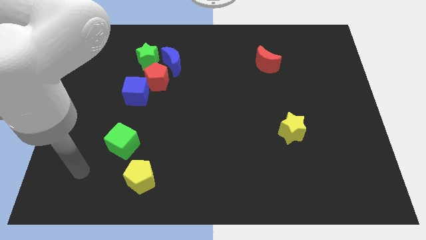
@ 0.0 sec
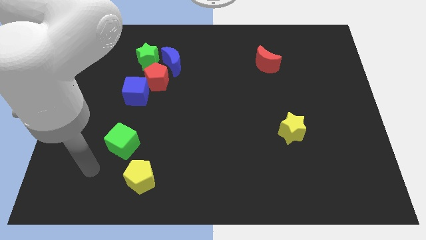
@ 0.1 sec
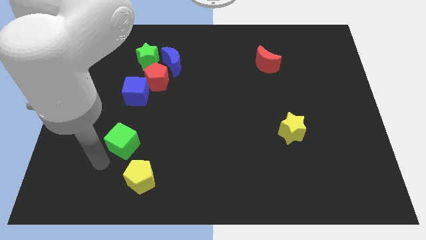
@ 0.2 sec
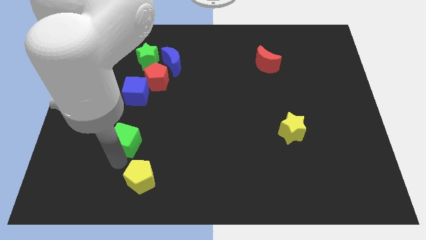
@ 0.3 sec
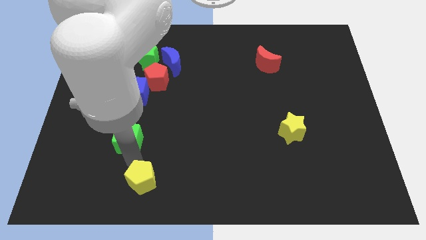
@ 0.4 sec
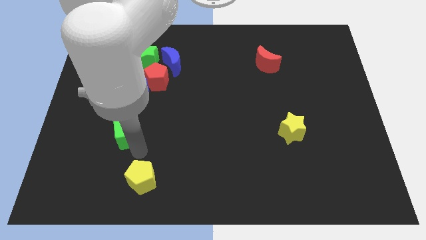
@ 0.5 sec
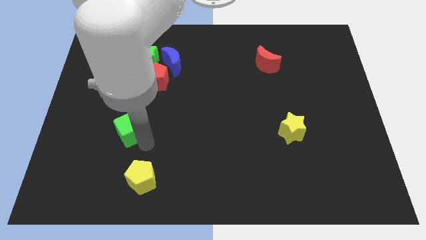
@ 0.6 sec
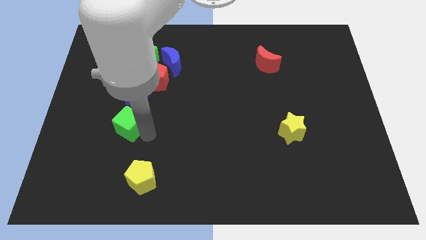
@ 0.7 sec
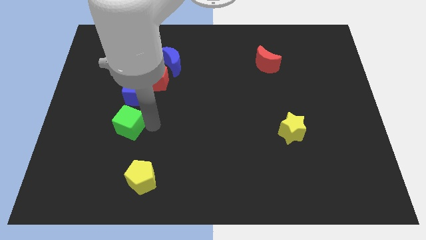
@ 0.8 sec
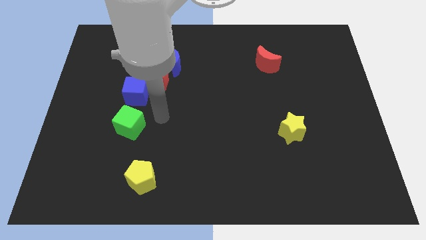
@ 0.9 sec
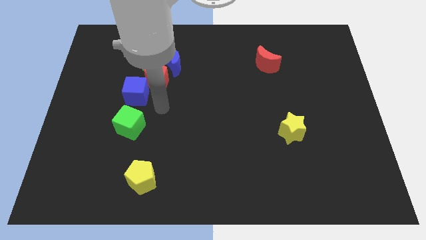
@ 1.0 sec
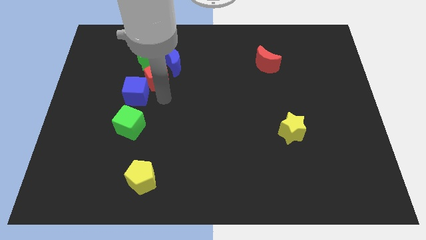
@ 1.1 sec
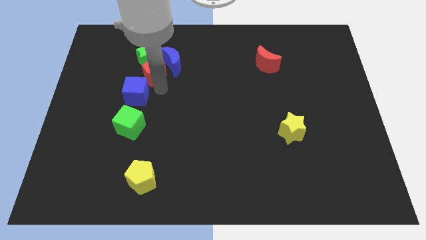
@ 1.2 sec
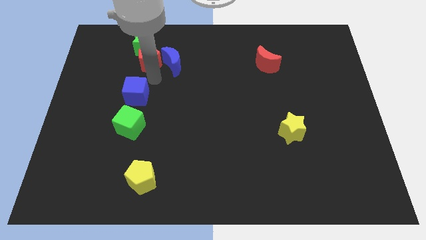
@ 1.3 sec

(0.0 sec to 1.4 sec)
separate the blue cube from the red pentagon

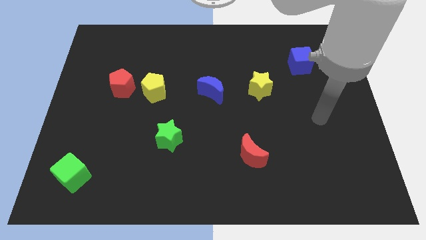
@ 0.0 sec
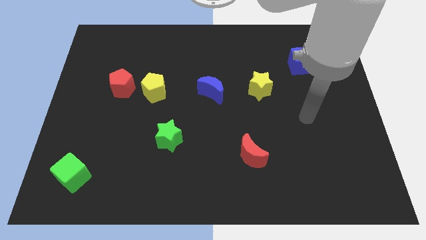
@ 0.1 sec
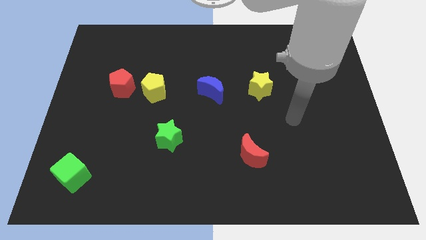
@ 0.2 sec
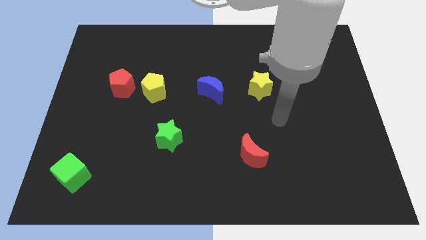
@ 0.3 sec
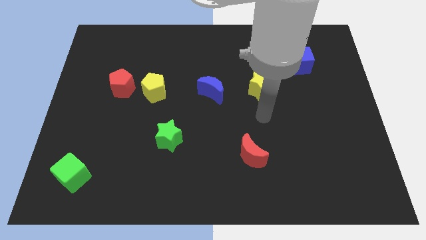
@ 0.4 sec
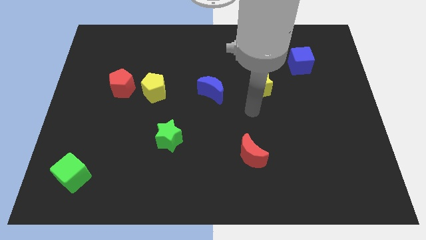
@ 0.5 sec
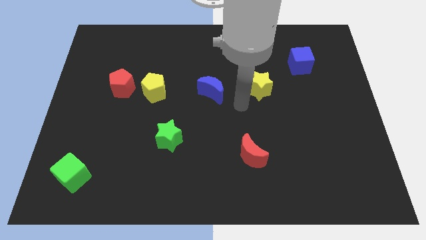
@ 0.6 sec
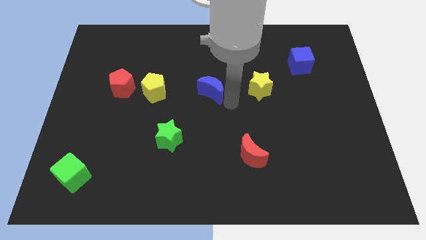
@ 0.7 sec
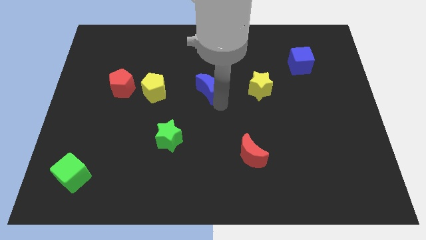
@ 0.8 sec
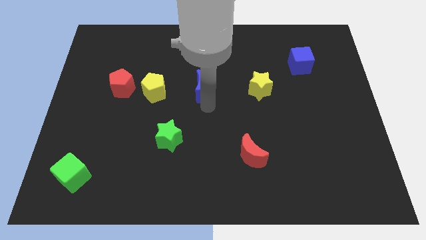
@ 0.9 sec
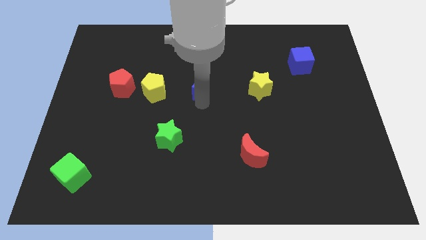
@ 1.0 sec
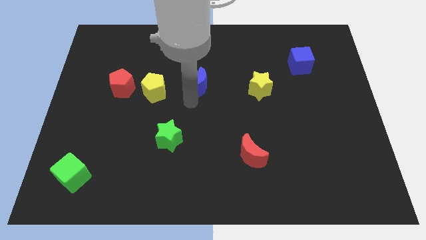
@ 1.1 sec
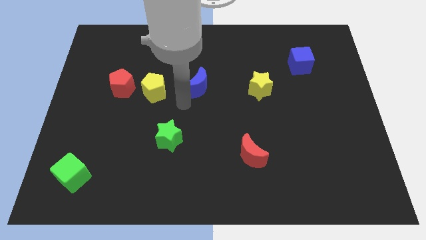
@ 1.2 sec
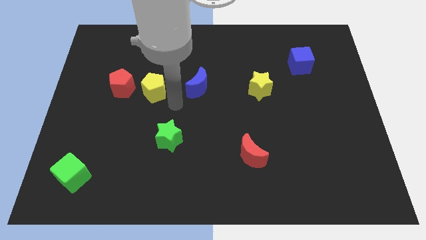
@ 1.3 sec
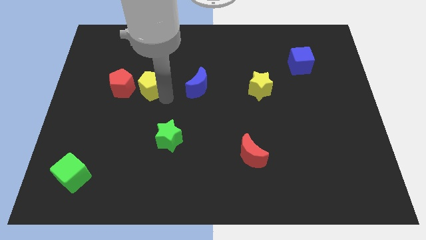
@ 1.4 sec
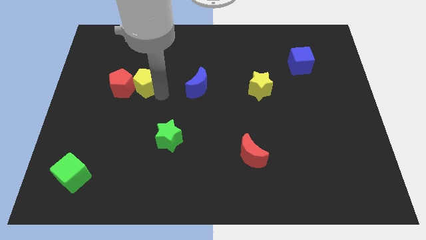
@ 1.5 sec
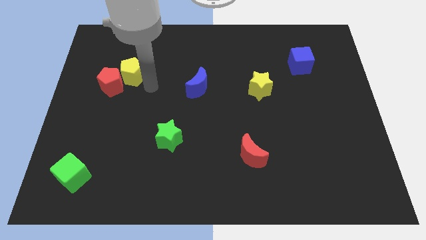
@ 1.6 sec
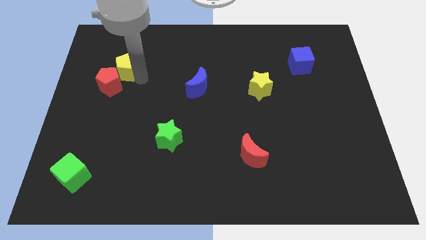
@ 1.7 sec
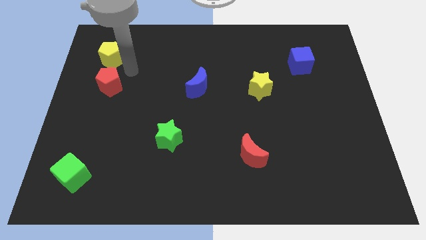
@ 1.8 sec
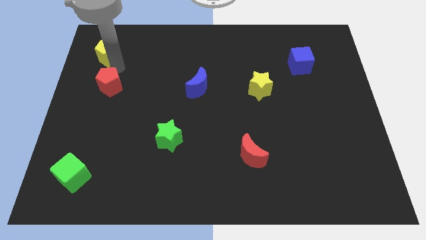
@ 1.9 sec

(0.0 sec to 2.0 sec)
move the red pentagon away from the yellow pentagon

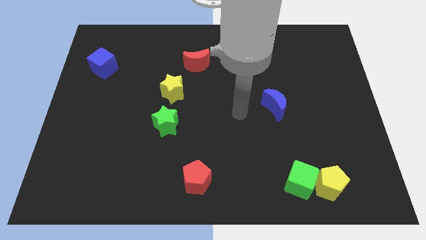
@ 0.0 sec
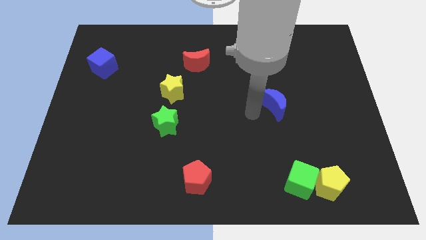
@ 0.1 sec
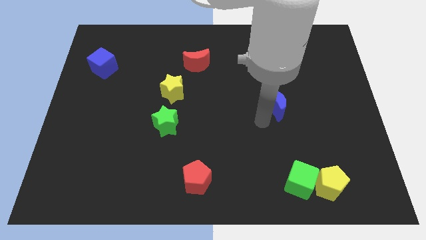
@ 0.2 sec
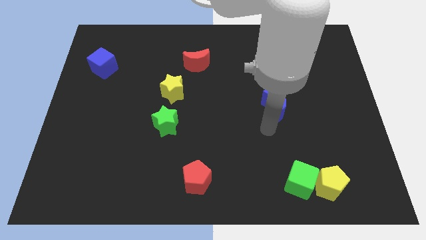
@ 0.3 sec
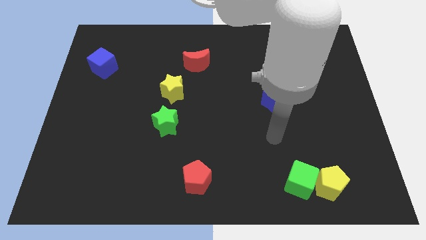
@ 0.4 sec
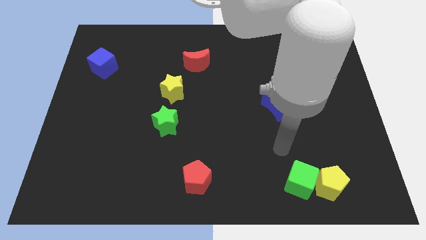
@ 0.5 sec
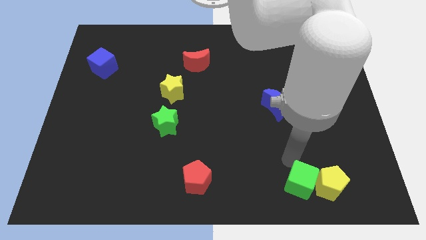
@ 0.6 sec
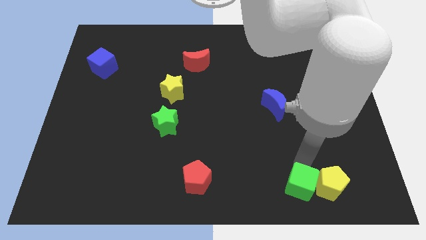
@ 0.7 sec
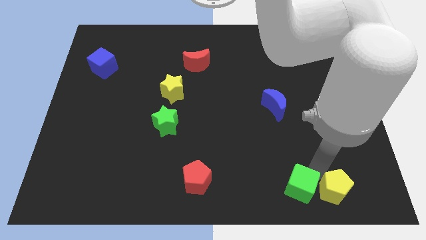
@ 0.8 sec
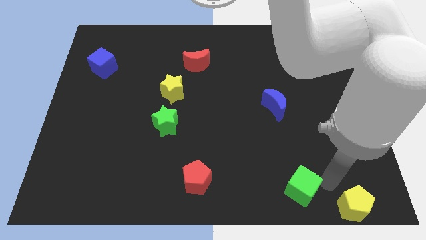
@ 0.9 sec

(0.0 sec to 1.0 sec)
pull the green cube apart from the yellow pentagon

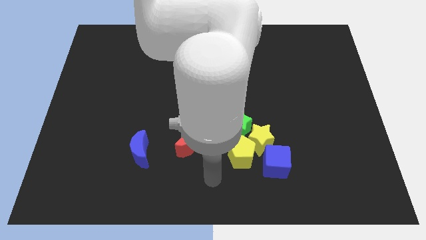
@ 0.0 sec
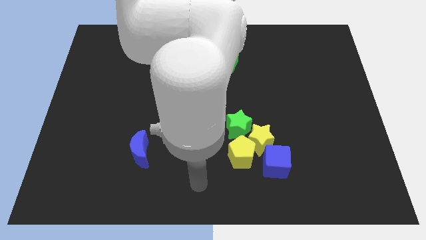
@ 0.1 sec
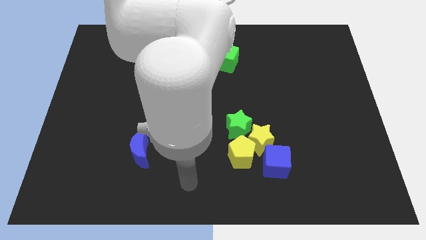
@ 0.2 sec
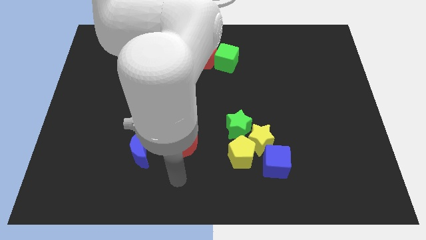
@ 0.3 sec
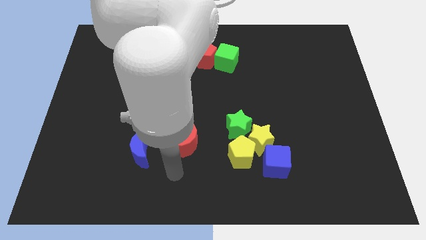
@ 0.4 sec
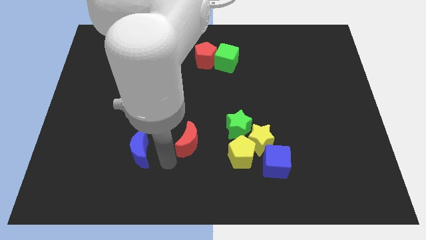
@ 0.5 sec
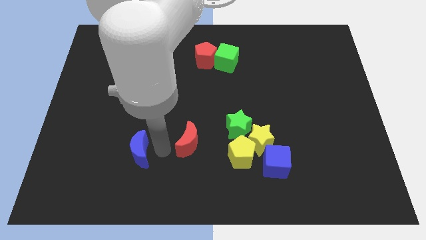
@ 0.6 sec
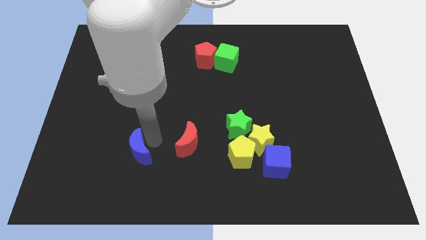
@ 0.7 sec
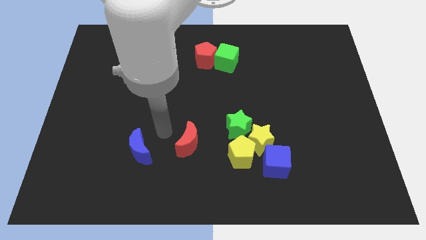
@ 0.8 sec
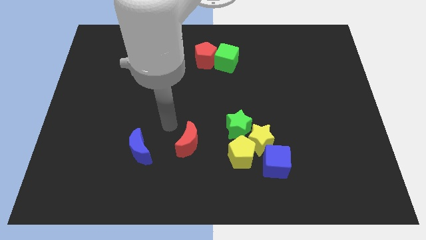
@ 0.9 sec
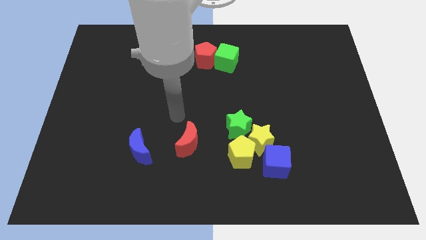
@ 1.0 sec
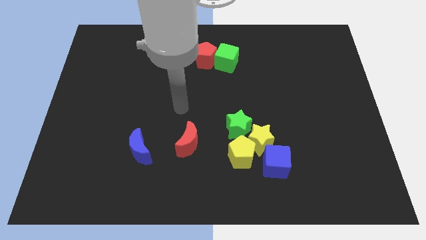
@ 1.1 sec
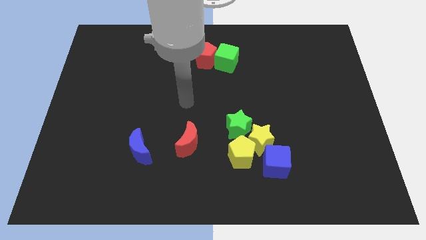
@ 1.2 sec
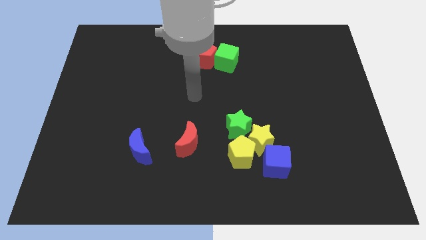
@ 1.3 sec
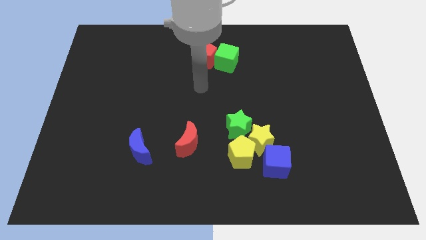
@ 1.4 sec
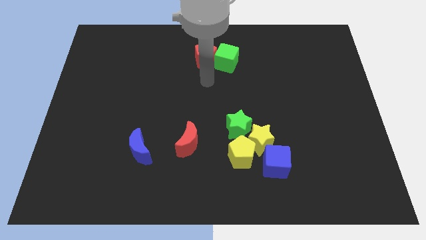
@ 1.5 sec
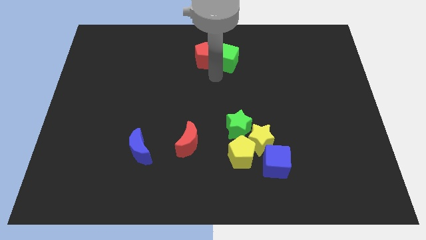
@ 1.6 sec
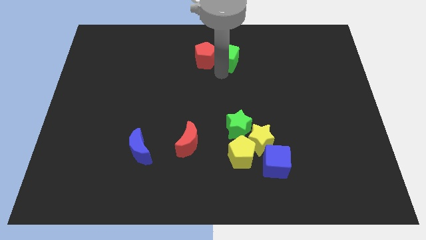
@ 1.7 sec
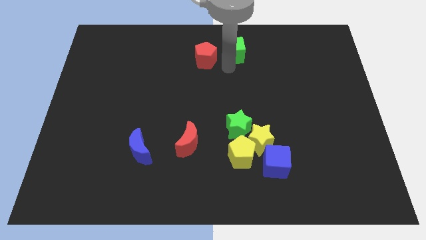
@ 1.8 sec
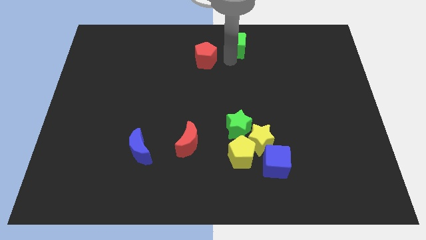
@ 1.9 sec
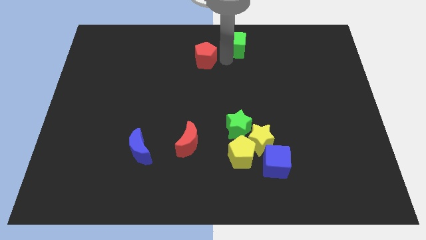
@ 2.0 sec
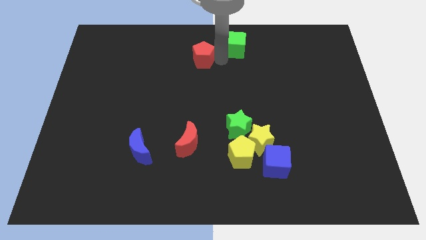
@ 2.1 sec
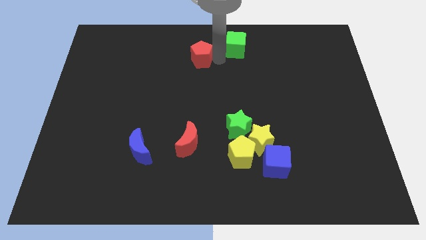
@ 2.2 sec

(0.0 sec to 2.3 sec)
pull the red pentagon apart from the green cube

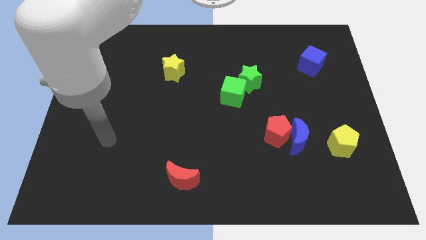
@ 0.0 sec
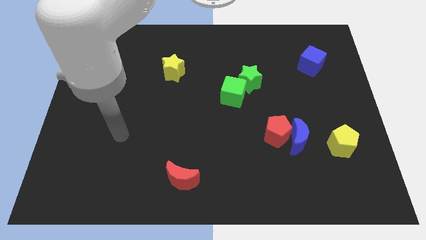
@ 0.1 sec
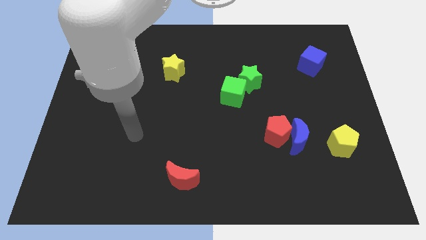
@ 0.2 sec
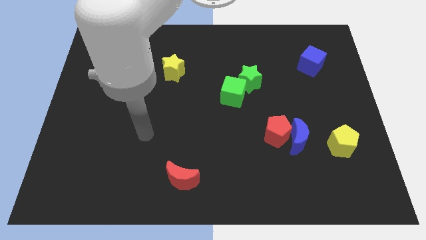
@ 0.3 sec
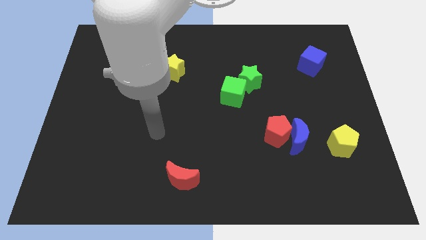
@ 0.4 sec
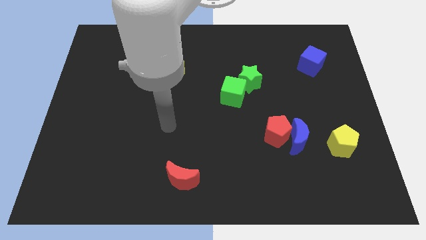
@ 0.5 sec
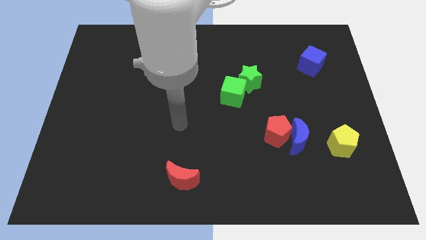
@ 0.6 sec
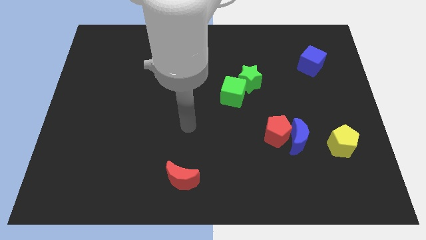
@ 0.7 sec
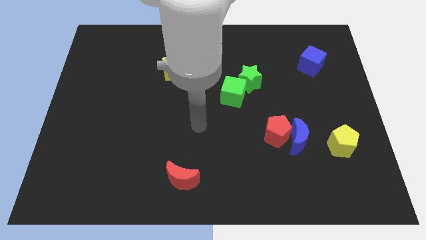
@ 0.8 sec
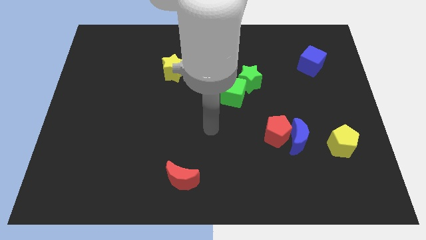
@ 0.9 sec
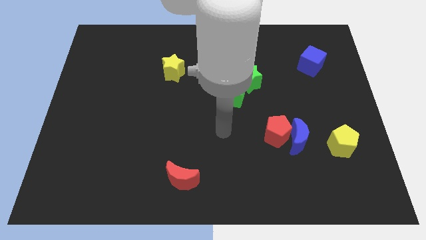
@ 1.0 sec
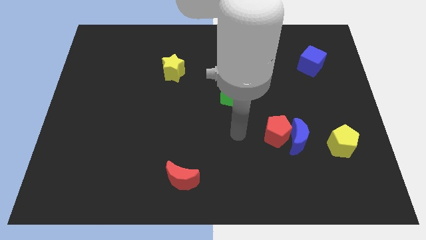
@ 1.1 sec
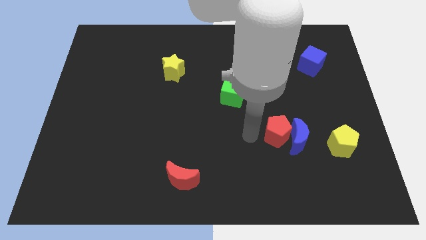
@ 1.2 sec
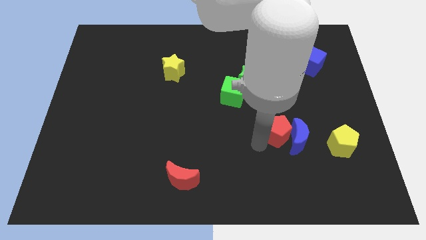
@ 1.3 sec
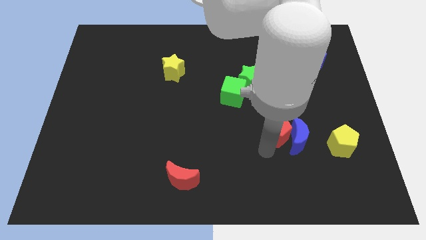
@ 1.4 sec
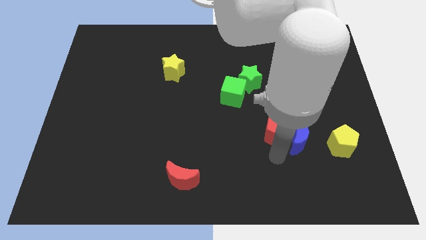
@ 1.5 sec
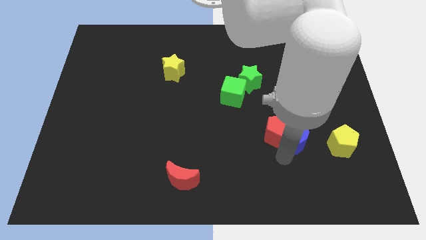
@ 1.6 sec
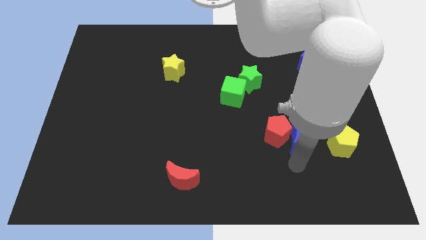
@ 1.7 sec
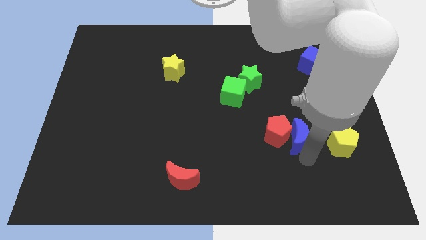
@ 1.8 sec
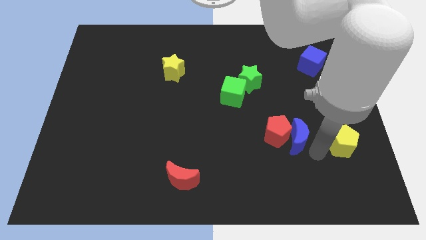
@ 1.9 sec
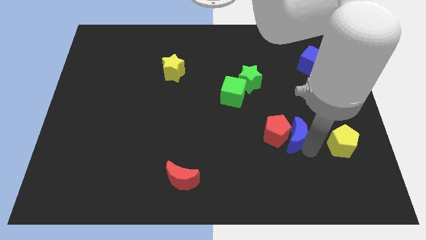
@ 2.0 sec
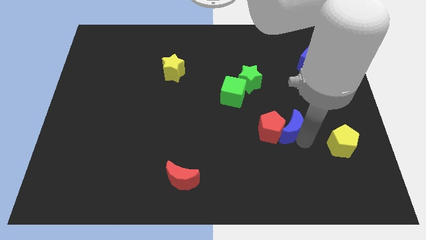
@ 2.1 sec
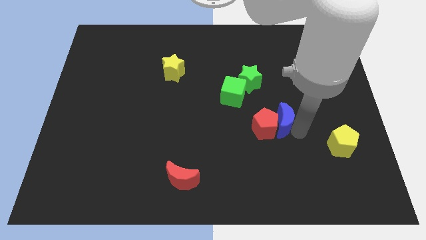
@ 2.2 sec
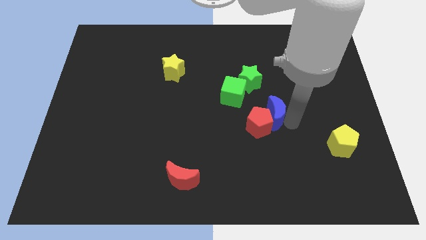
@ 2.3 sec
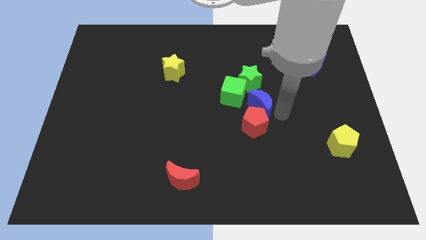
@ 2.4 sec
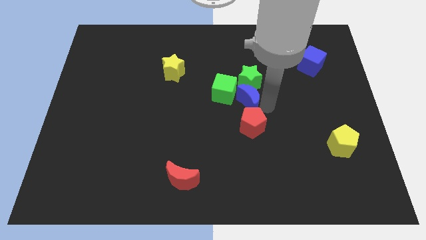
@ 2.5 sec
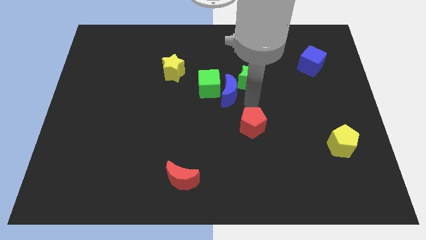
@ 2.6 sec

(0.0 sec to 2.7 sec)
move the red pentagon away from the blue moon
